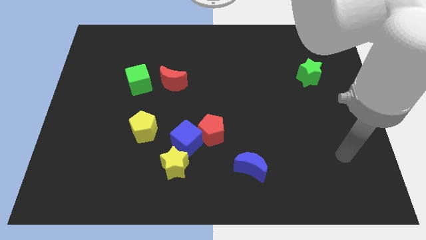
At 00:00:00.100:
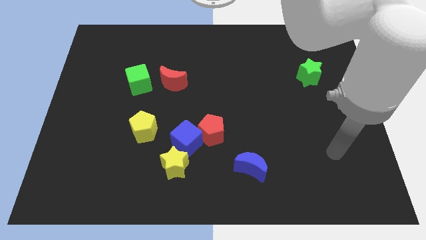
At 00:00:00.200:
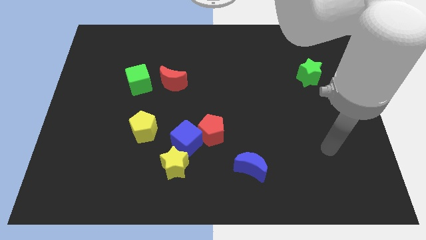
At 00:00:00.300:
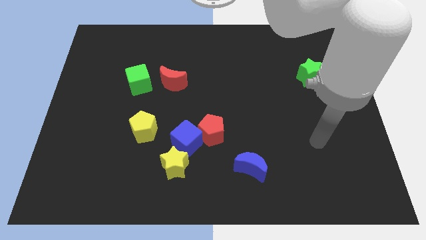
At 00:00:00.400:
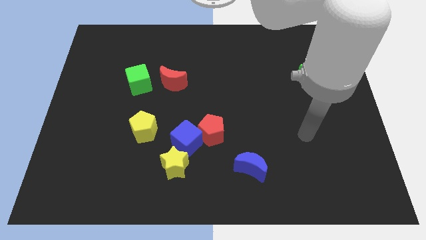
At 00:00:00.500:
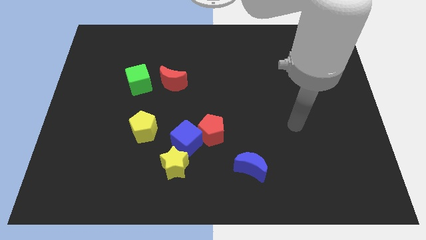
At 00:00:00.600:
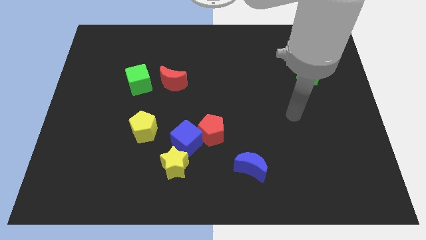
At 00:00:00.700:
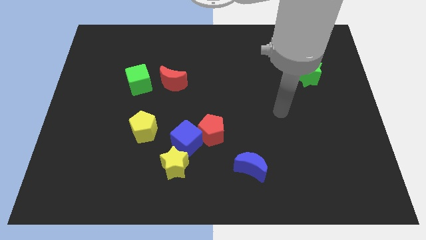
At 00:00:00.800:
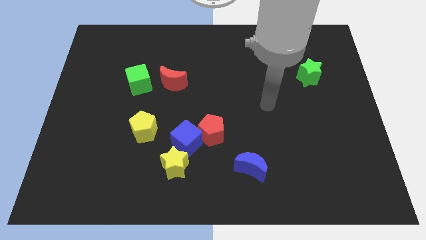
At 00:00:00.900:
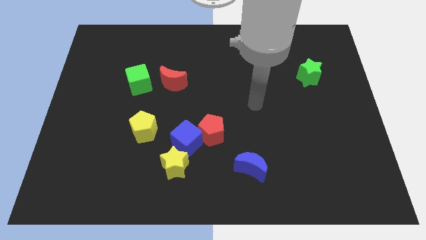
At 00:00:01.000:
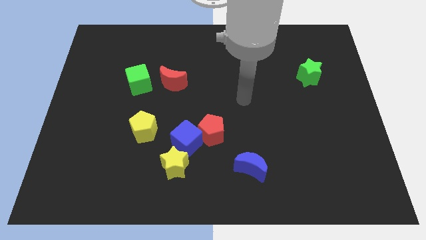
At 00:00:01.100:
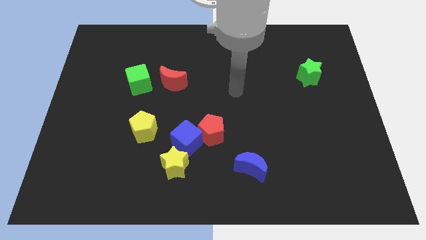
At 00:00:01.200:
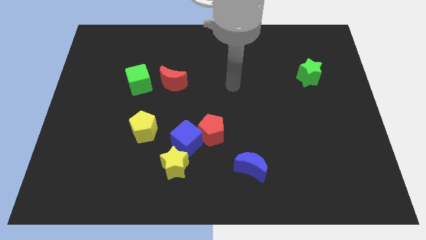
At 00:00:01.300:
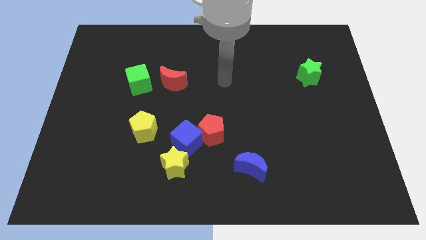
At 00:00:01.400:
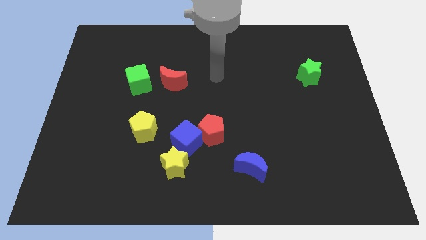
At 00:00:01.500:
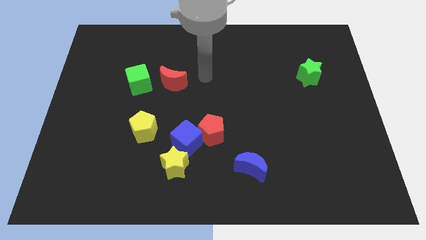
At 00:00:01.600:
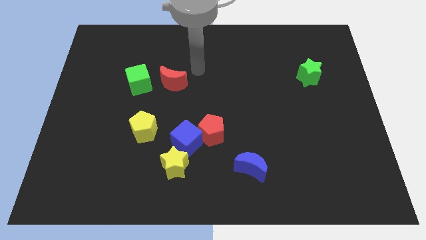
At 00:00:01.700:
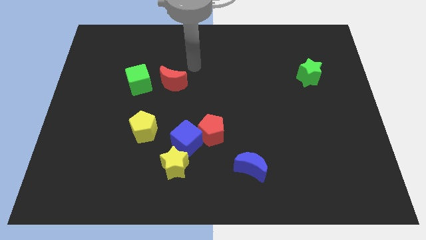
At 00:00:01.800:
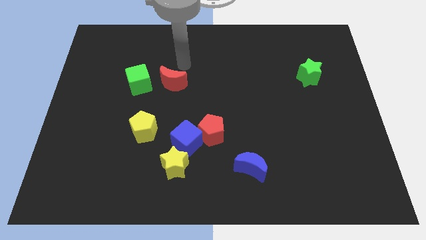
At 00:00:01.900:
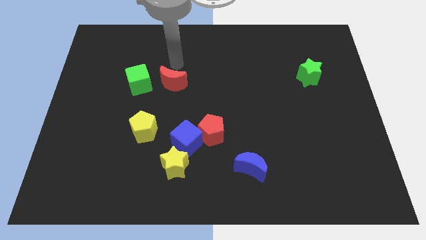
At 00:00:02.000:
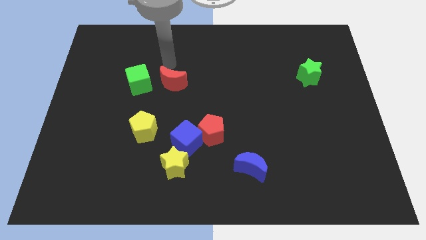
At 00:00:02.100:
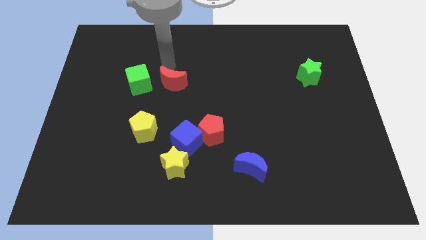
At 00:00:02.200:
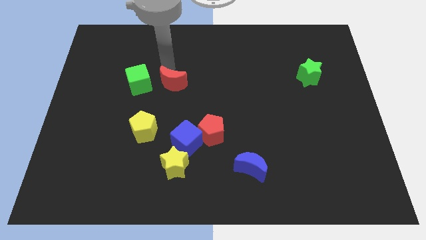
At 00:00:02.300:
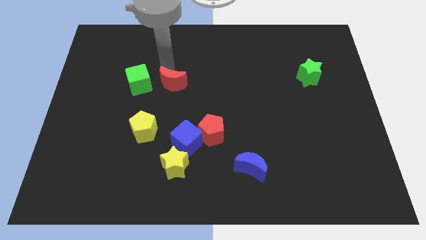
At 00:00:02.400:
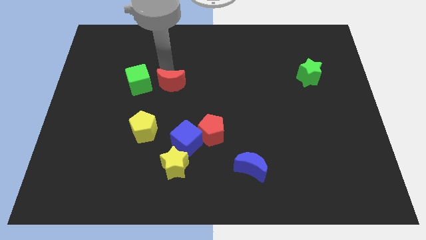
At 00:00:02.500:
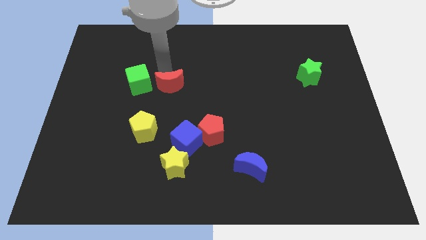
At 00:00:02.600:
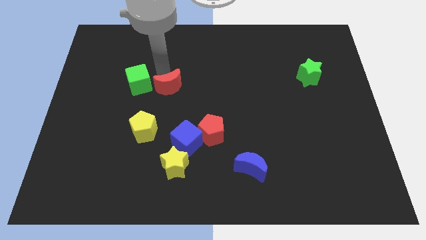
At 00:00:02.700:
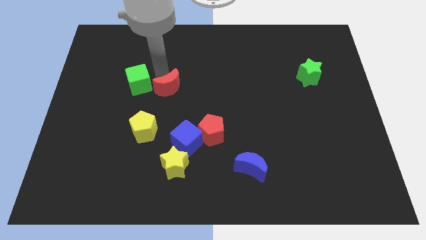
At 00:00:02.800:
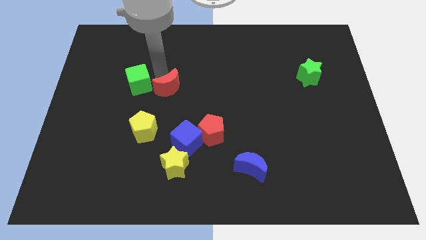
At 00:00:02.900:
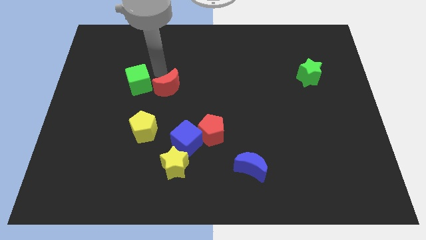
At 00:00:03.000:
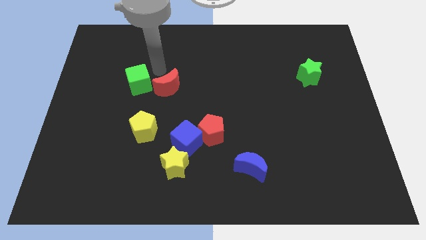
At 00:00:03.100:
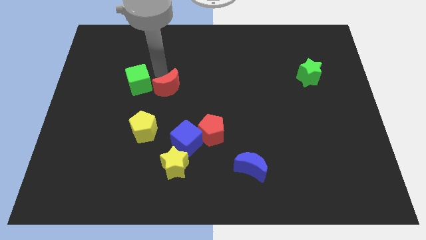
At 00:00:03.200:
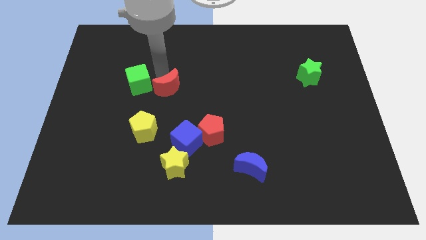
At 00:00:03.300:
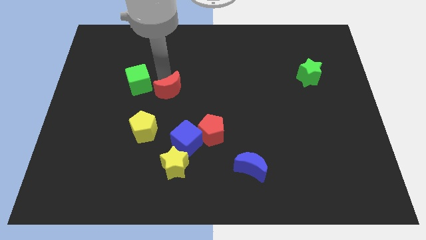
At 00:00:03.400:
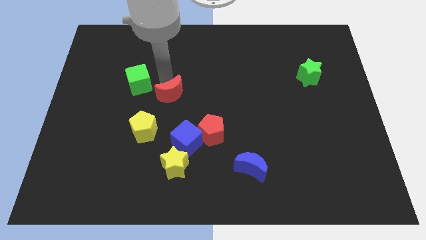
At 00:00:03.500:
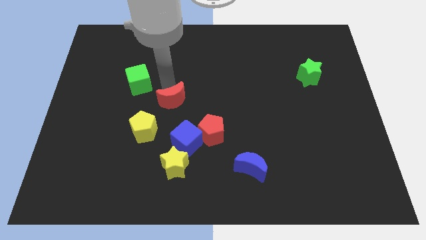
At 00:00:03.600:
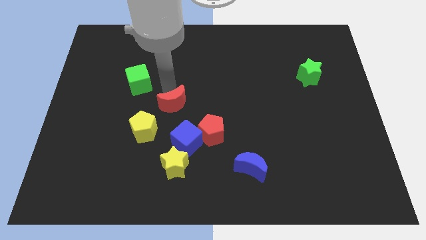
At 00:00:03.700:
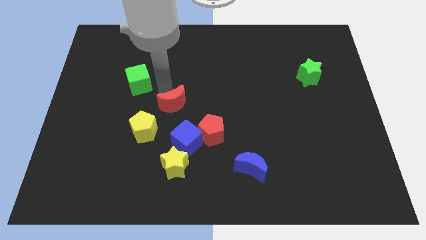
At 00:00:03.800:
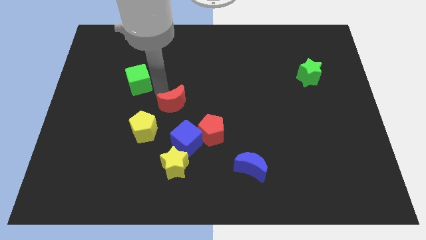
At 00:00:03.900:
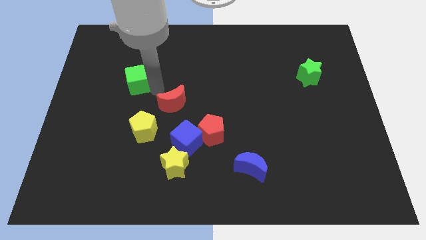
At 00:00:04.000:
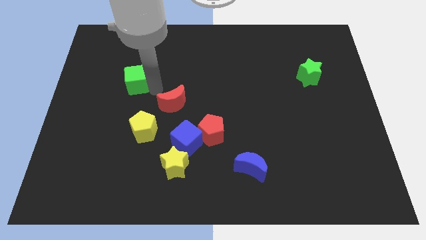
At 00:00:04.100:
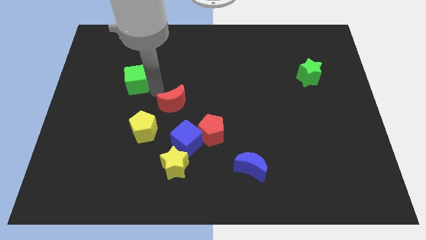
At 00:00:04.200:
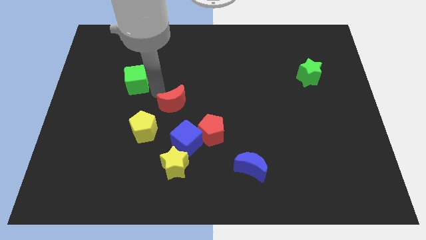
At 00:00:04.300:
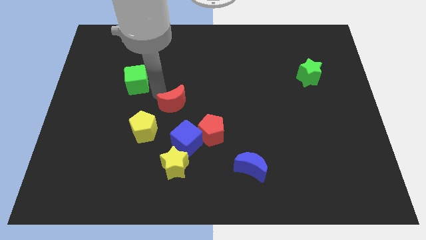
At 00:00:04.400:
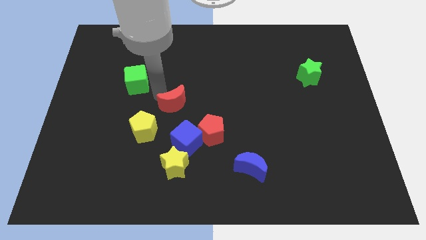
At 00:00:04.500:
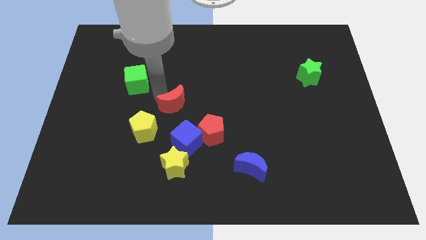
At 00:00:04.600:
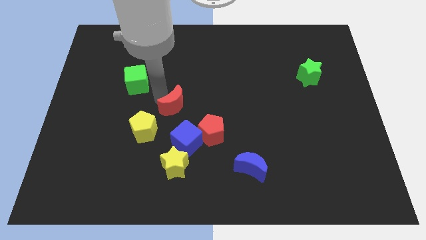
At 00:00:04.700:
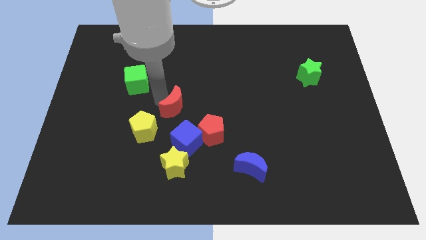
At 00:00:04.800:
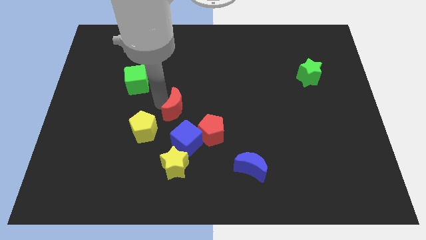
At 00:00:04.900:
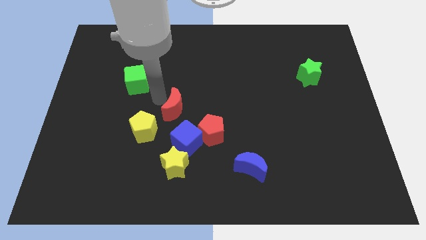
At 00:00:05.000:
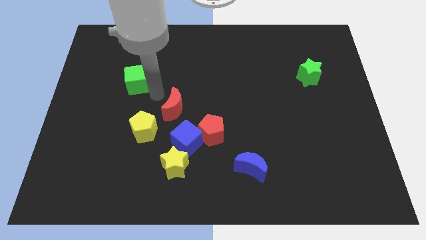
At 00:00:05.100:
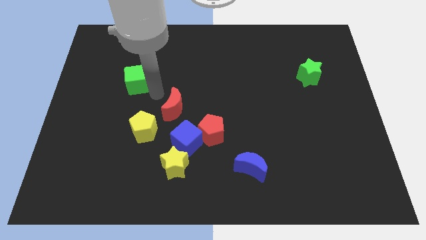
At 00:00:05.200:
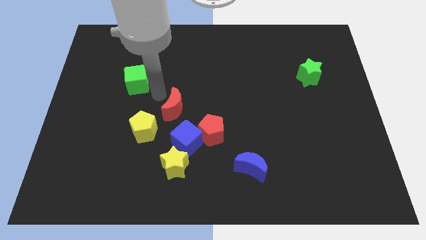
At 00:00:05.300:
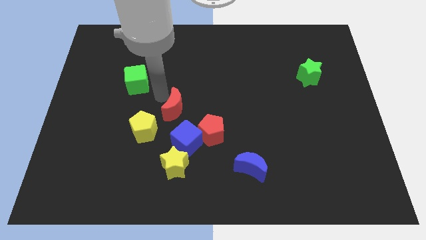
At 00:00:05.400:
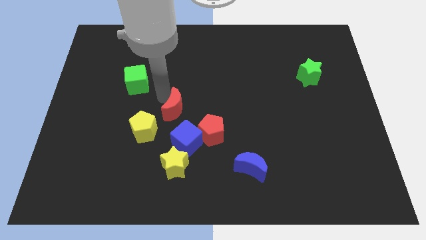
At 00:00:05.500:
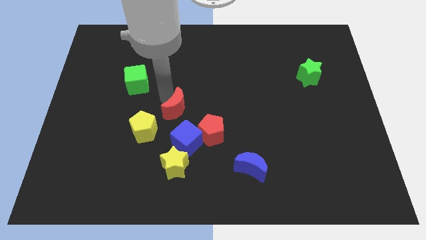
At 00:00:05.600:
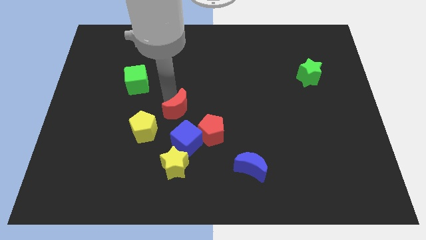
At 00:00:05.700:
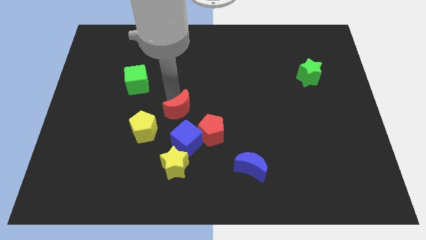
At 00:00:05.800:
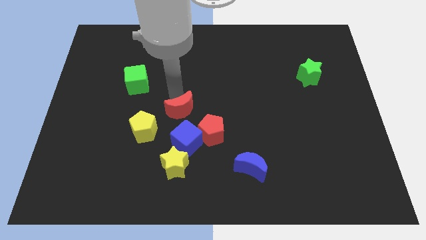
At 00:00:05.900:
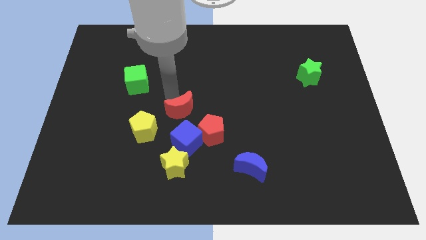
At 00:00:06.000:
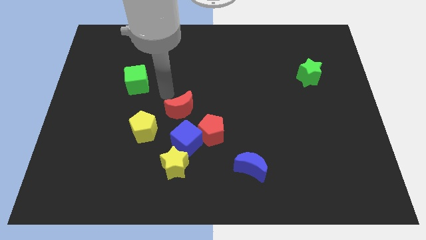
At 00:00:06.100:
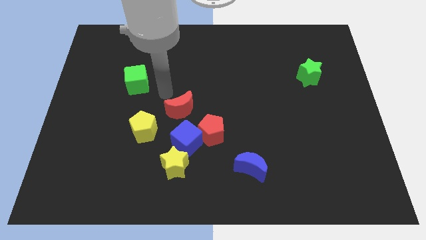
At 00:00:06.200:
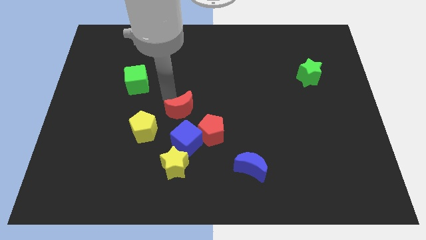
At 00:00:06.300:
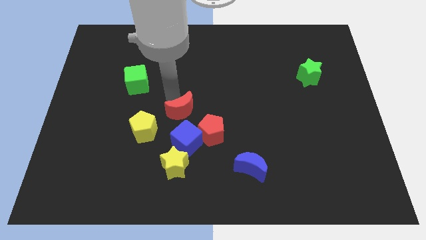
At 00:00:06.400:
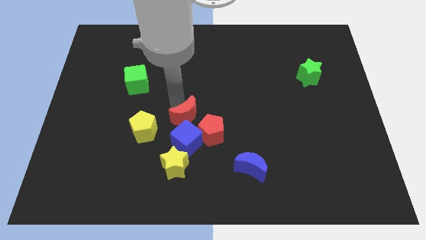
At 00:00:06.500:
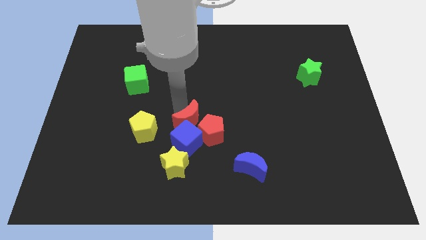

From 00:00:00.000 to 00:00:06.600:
move the red moon next to the red pentagon
